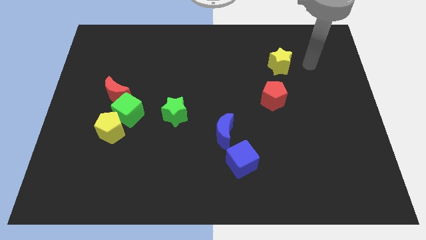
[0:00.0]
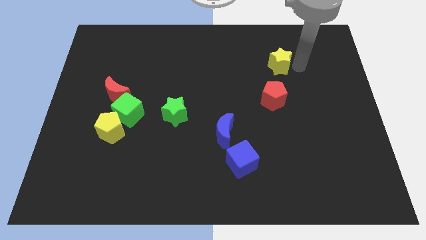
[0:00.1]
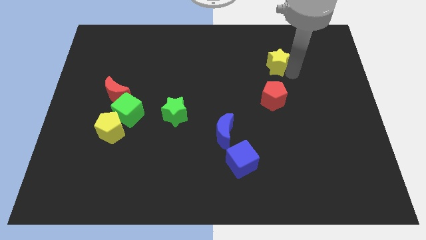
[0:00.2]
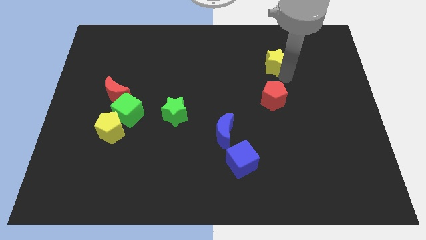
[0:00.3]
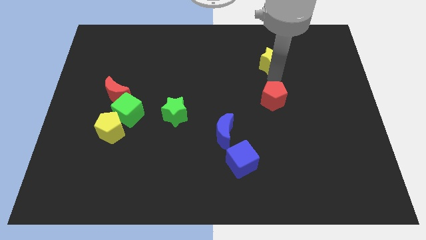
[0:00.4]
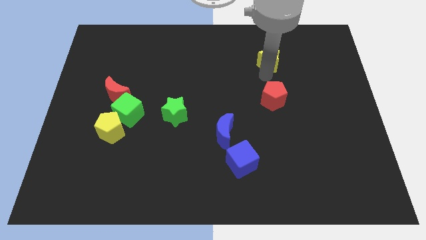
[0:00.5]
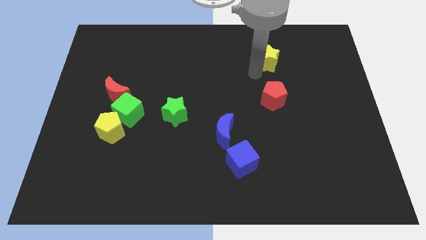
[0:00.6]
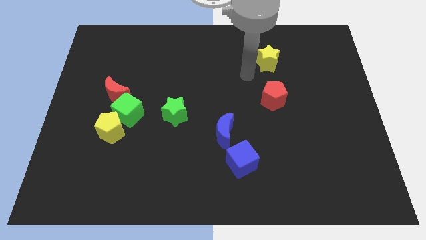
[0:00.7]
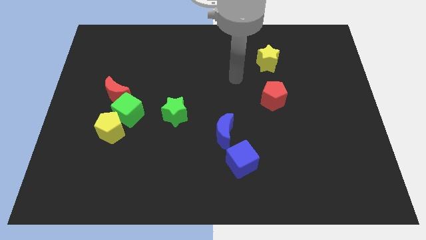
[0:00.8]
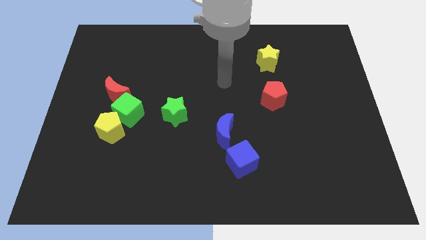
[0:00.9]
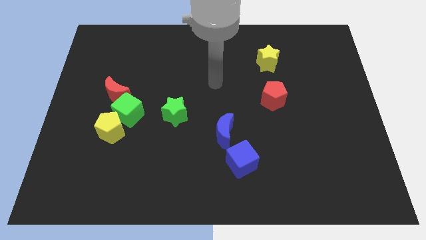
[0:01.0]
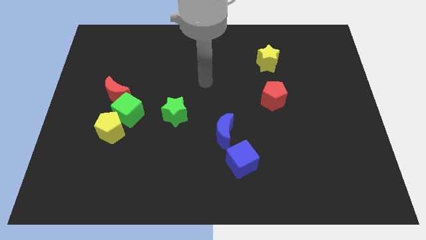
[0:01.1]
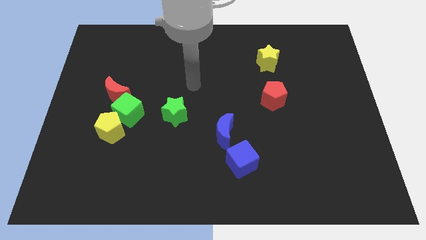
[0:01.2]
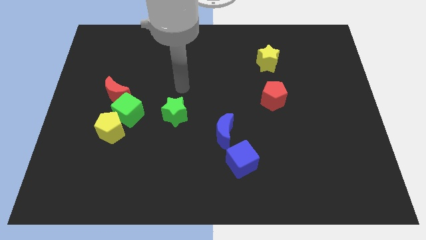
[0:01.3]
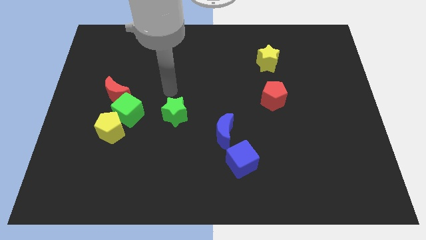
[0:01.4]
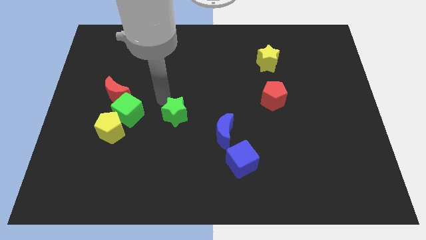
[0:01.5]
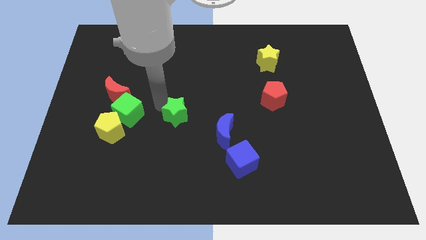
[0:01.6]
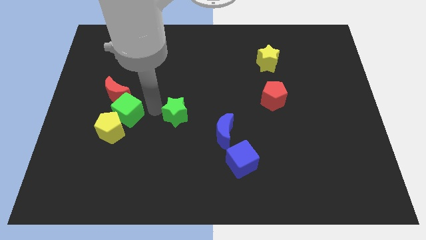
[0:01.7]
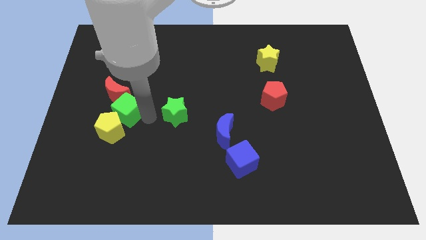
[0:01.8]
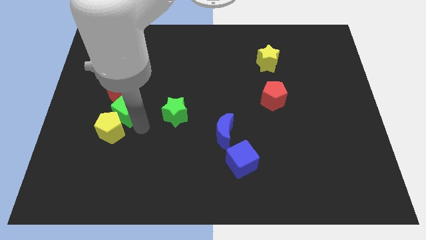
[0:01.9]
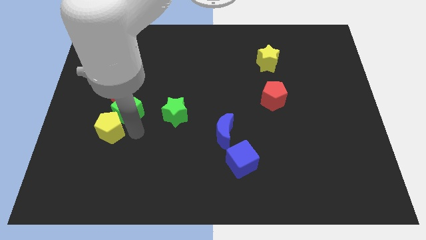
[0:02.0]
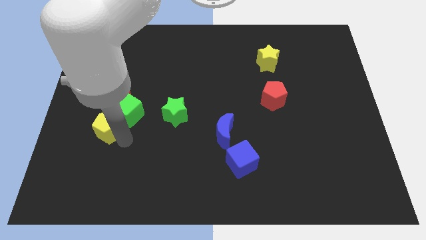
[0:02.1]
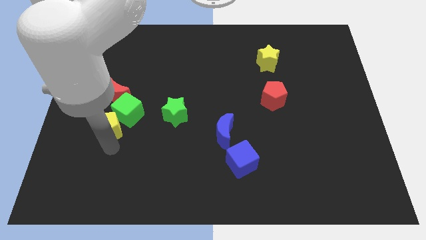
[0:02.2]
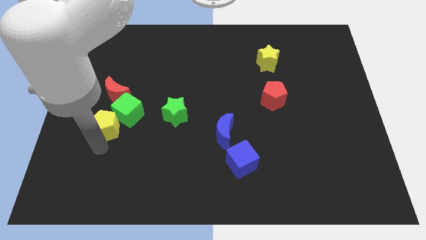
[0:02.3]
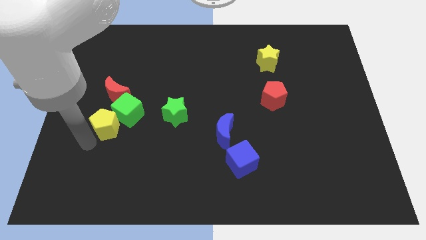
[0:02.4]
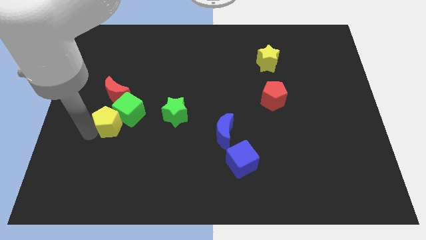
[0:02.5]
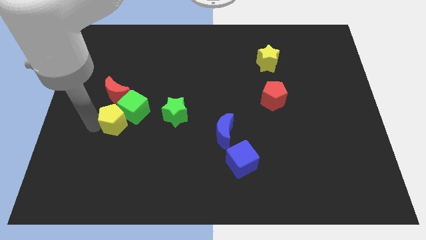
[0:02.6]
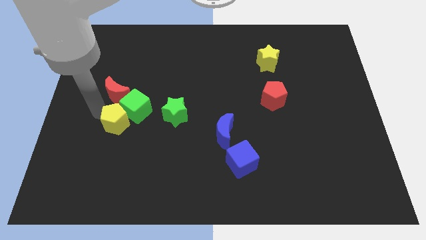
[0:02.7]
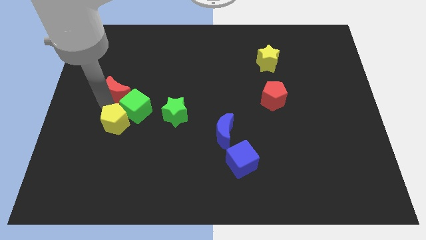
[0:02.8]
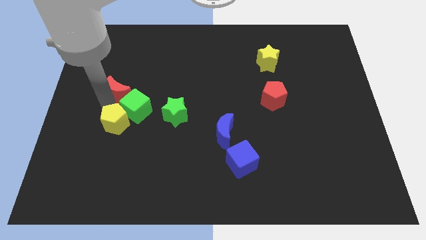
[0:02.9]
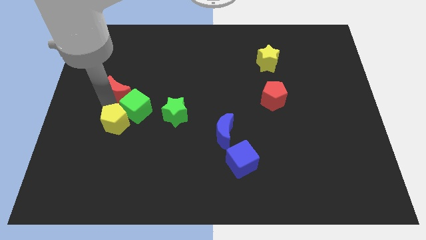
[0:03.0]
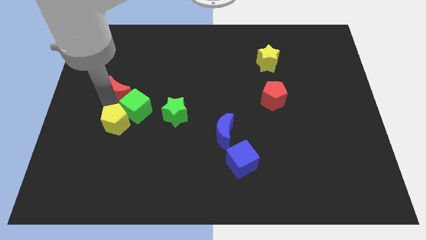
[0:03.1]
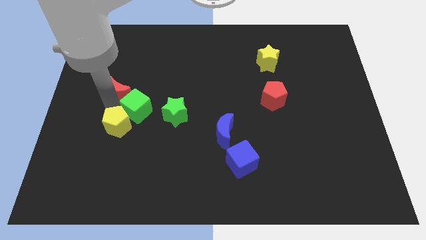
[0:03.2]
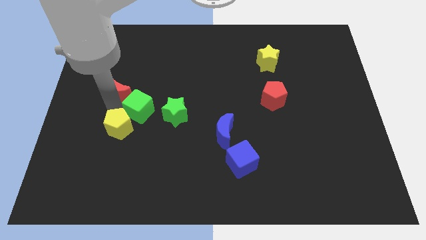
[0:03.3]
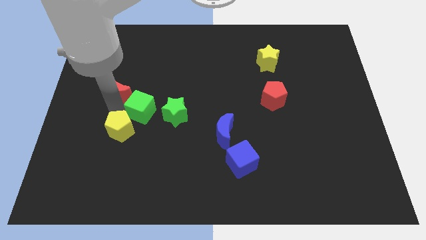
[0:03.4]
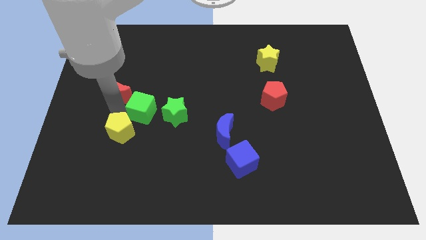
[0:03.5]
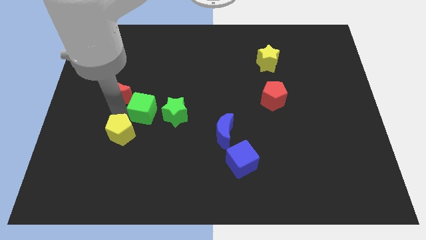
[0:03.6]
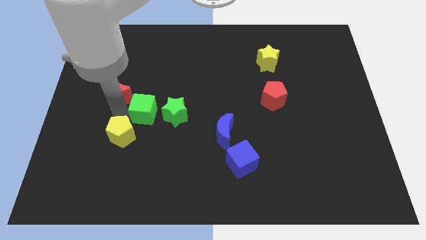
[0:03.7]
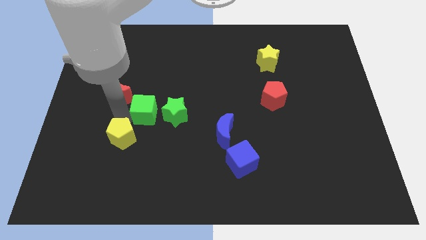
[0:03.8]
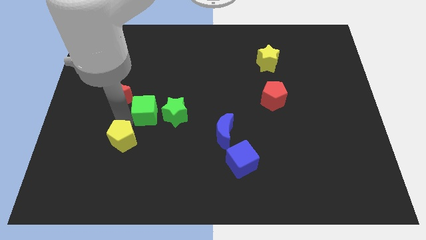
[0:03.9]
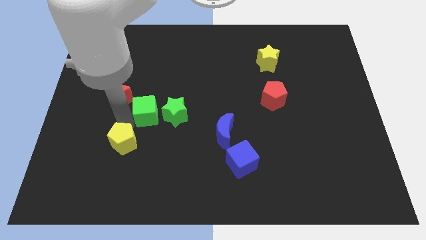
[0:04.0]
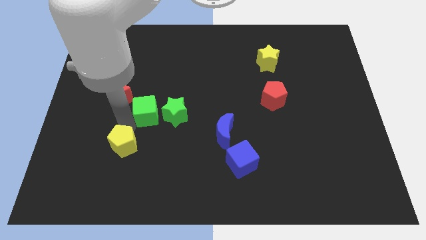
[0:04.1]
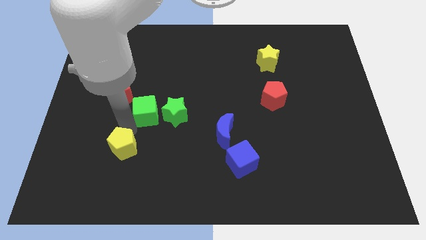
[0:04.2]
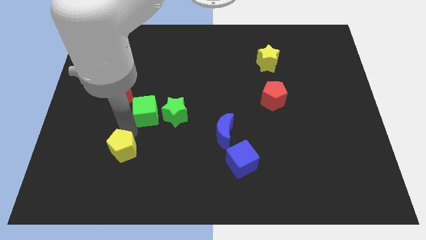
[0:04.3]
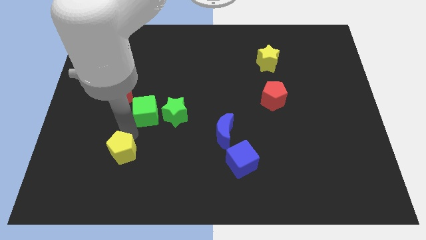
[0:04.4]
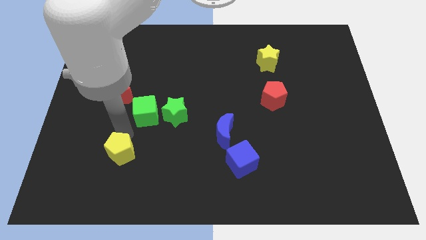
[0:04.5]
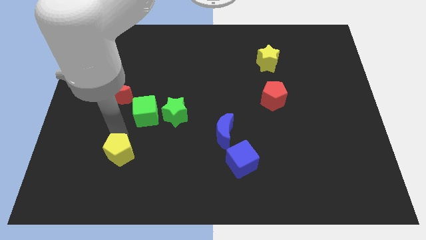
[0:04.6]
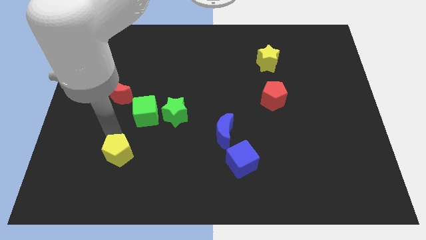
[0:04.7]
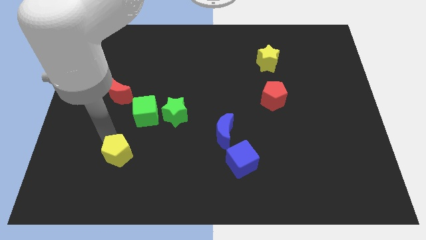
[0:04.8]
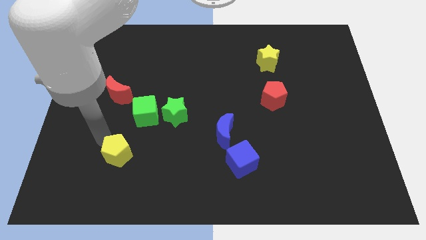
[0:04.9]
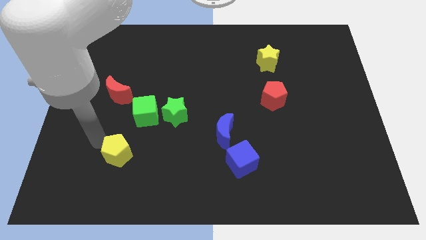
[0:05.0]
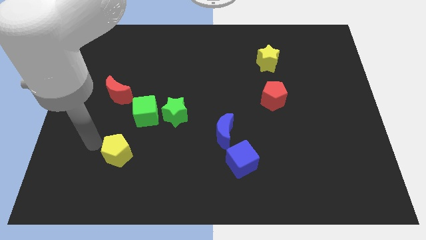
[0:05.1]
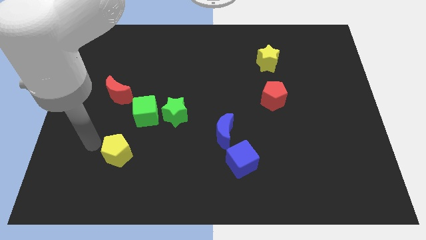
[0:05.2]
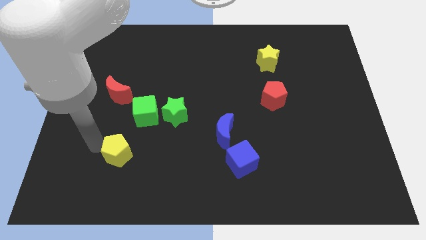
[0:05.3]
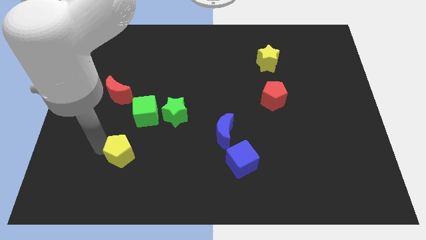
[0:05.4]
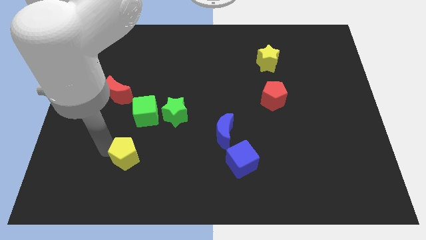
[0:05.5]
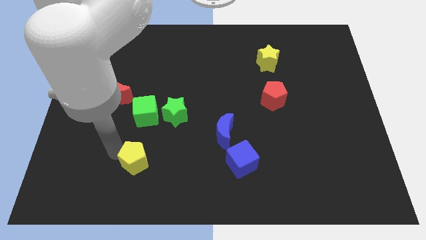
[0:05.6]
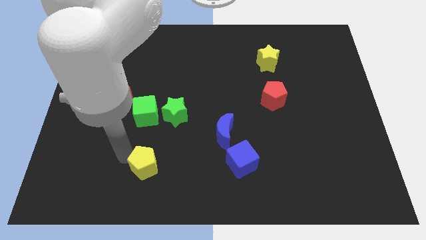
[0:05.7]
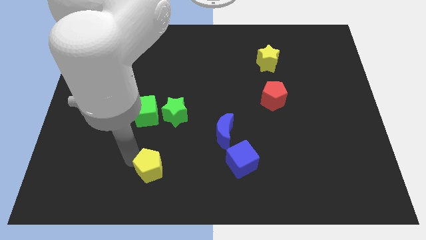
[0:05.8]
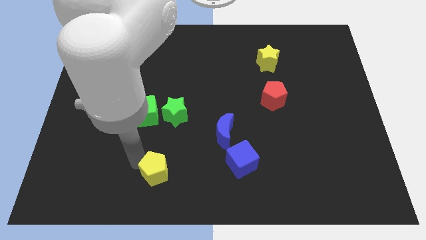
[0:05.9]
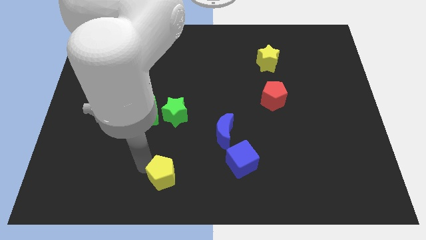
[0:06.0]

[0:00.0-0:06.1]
slide the yellow pentagon to the bottom side

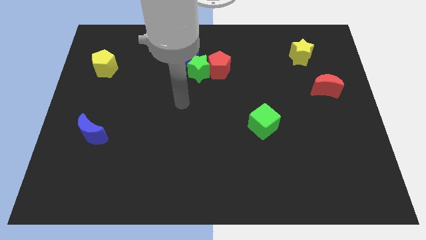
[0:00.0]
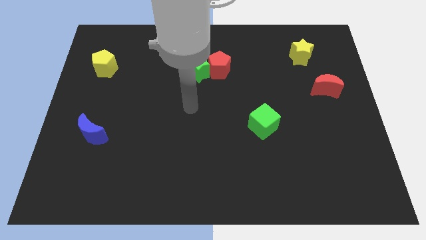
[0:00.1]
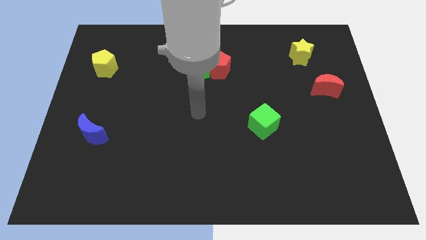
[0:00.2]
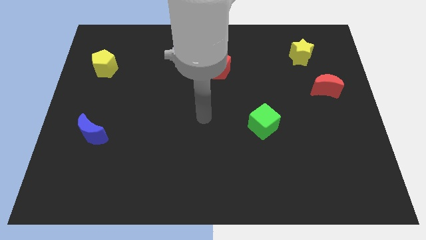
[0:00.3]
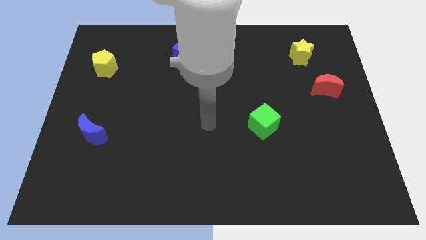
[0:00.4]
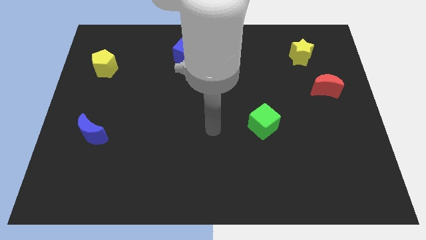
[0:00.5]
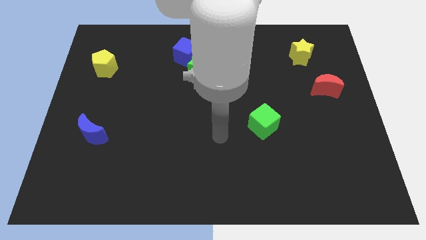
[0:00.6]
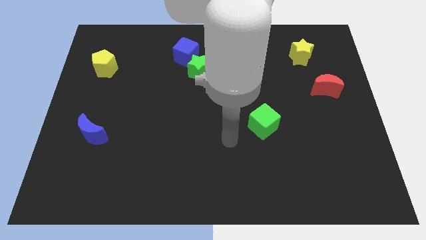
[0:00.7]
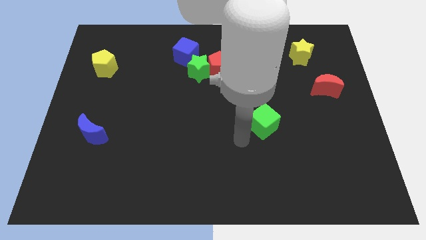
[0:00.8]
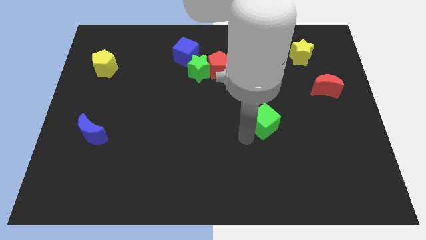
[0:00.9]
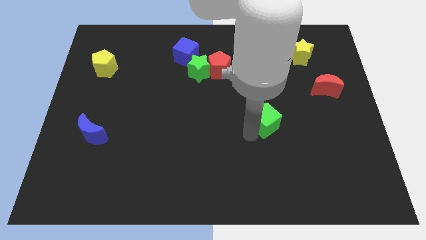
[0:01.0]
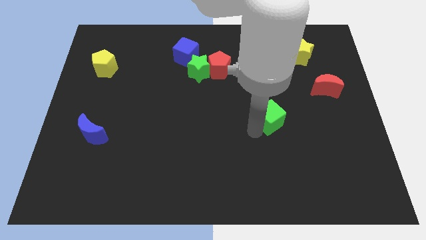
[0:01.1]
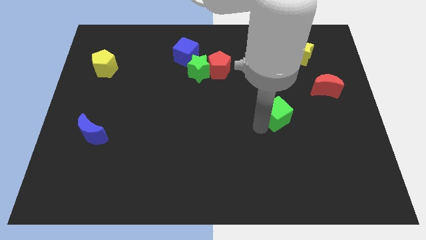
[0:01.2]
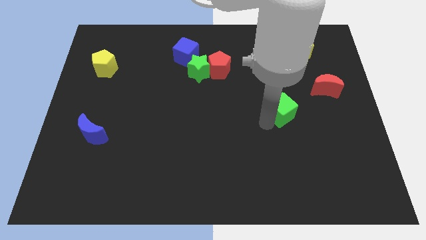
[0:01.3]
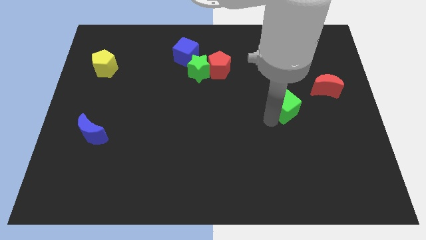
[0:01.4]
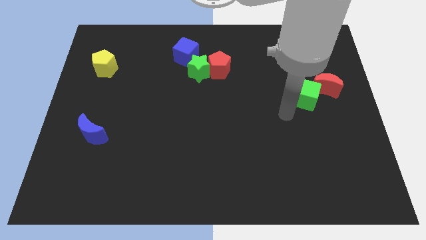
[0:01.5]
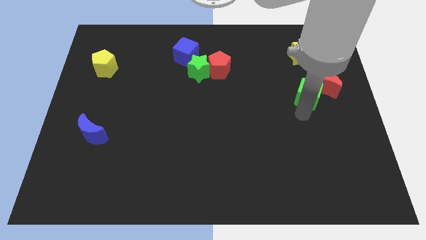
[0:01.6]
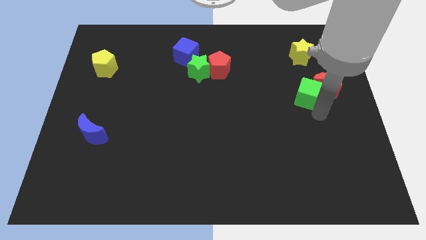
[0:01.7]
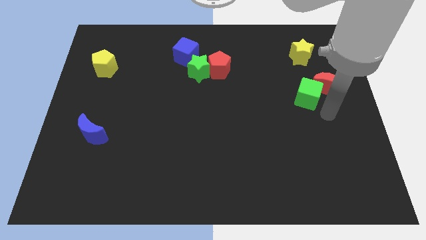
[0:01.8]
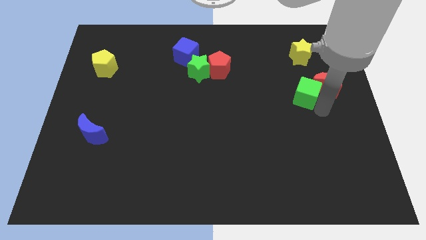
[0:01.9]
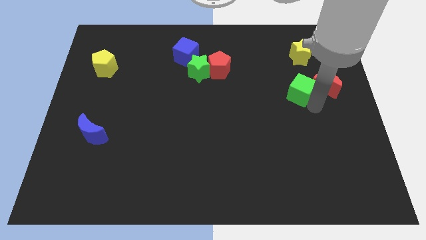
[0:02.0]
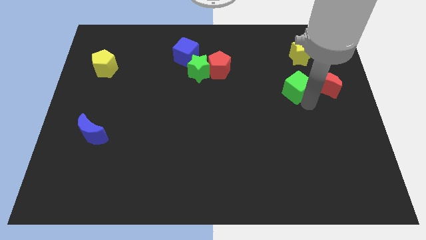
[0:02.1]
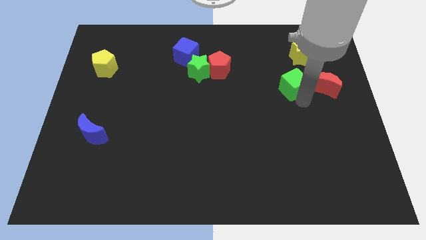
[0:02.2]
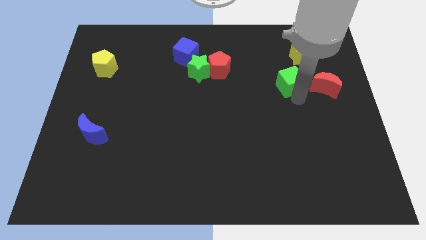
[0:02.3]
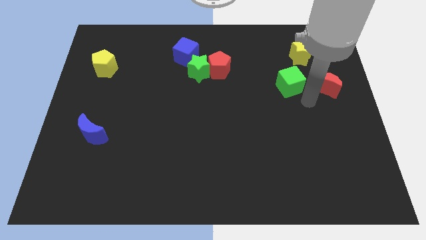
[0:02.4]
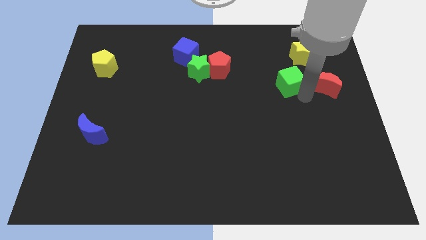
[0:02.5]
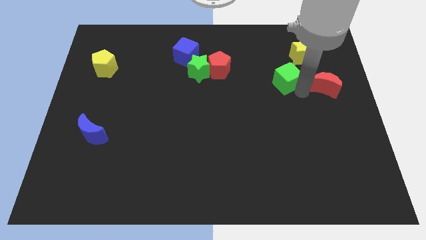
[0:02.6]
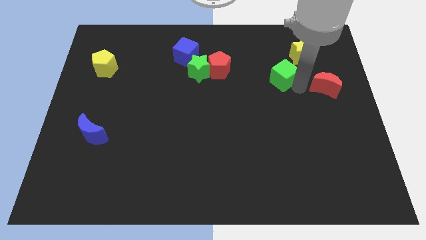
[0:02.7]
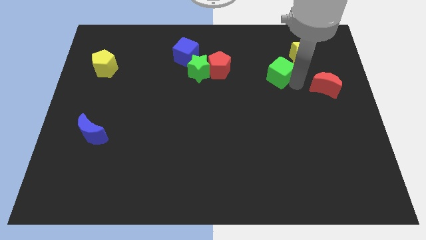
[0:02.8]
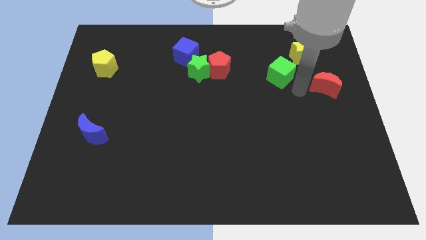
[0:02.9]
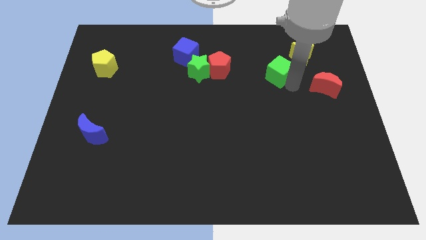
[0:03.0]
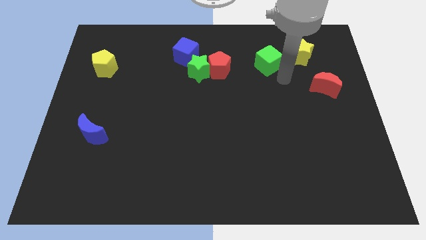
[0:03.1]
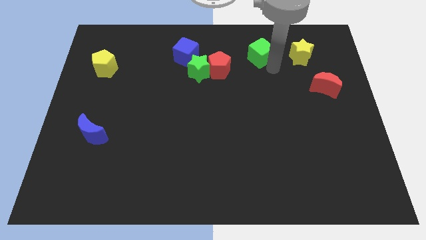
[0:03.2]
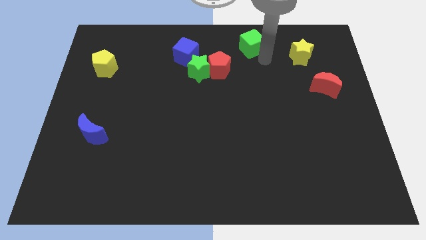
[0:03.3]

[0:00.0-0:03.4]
push the green cube to the top
